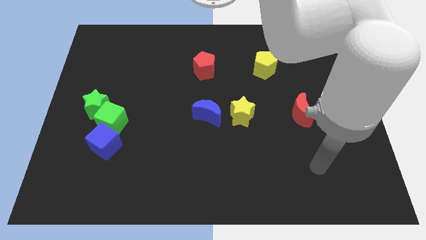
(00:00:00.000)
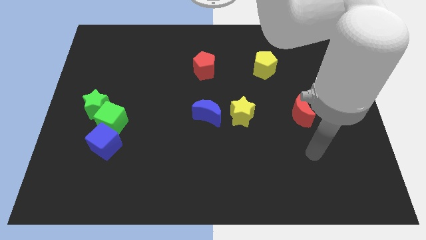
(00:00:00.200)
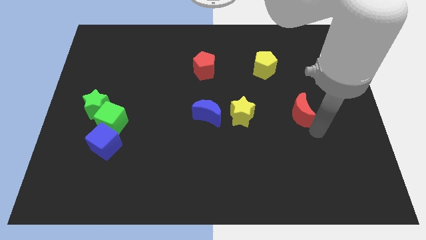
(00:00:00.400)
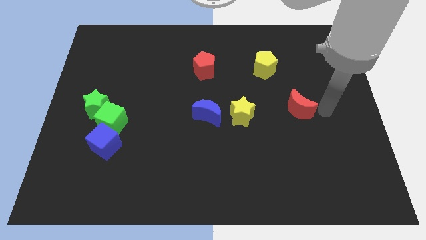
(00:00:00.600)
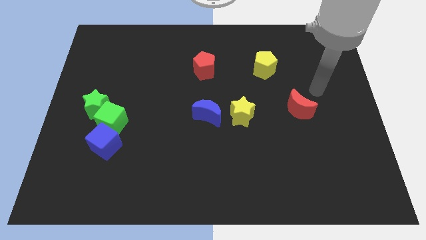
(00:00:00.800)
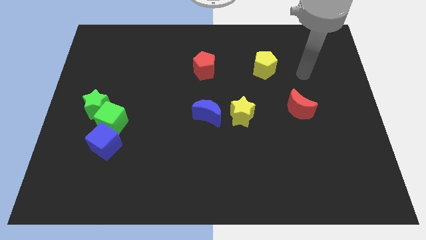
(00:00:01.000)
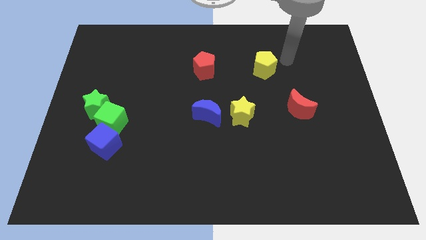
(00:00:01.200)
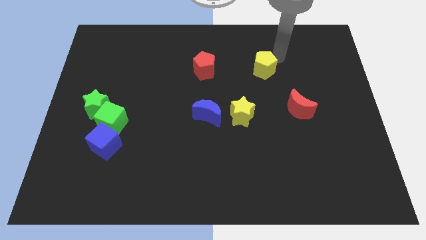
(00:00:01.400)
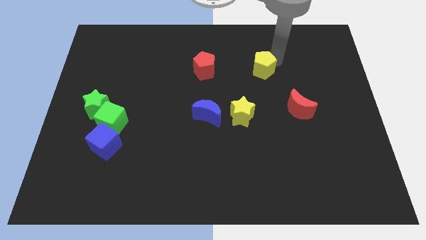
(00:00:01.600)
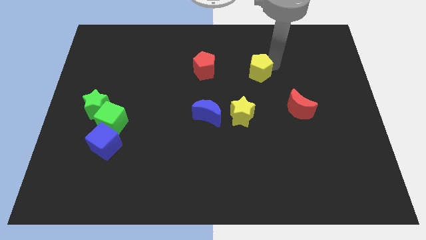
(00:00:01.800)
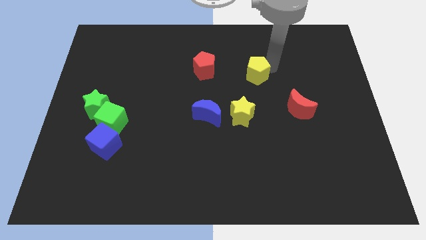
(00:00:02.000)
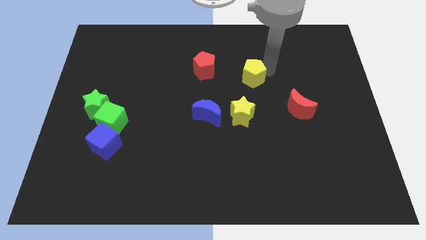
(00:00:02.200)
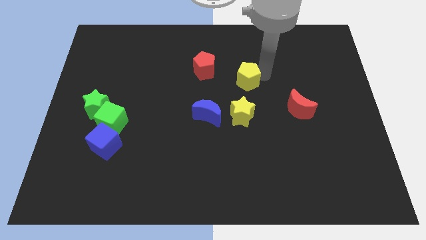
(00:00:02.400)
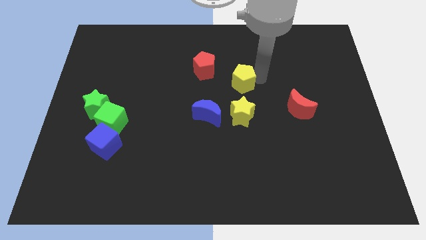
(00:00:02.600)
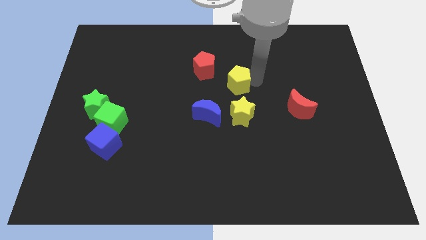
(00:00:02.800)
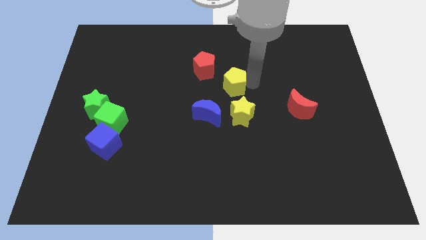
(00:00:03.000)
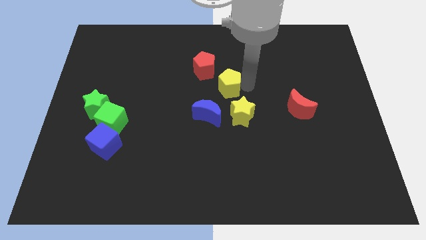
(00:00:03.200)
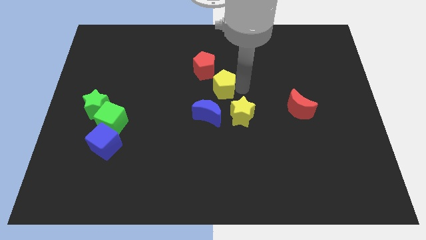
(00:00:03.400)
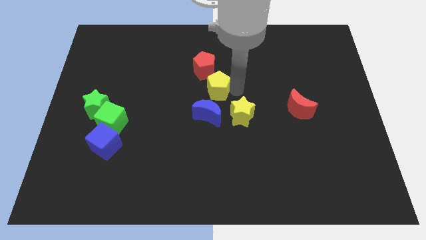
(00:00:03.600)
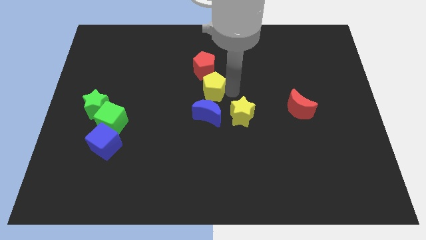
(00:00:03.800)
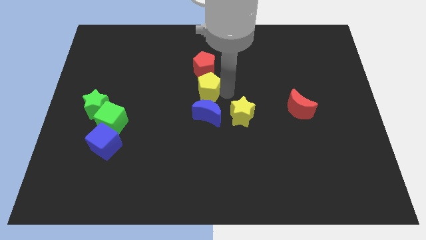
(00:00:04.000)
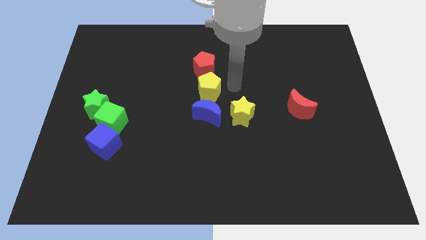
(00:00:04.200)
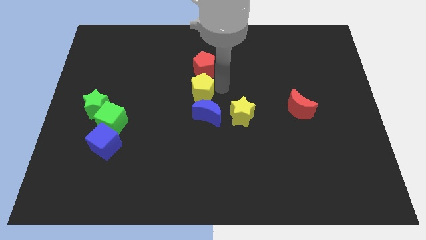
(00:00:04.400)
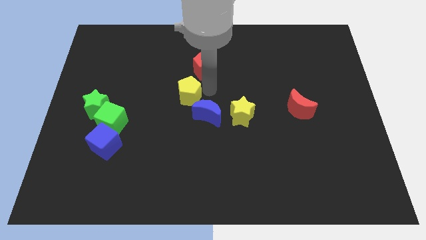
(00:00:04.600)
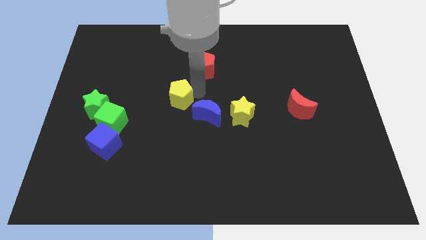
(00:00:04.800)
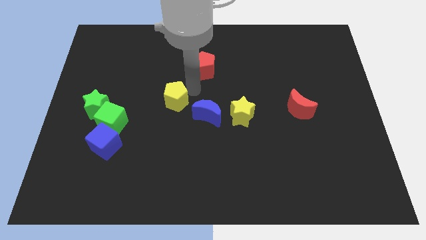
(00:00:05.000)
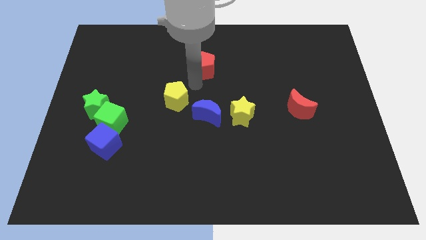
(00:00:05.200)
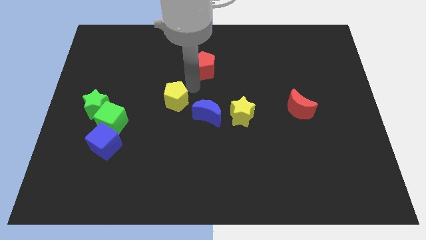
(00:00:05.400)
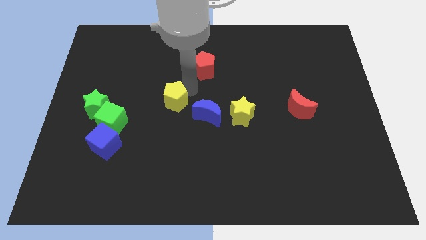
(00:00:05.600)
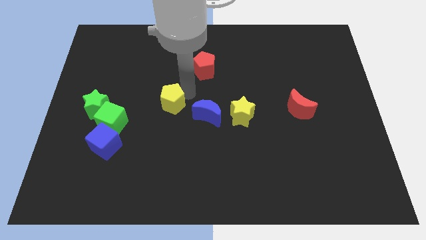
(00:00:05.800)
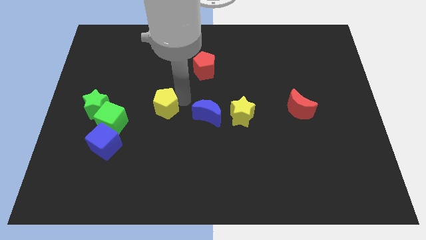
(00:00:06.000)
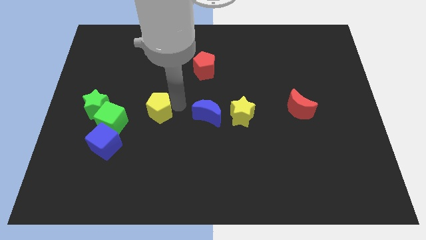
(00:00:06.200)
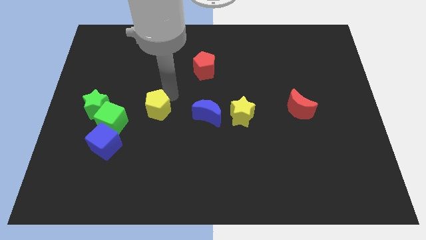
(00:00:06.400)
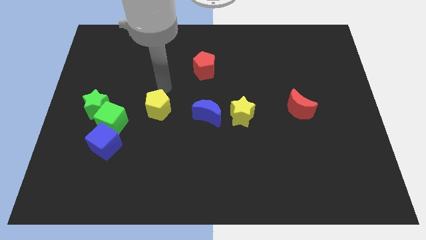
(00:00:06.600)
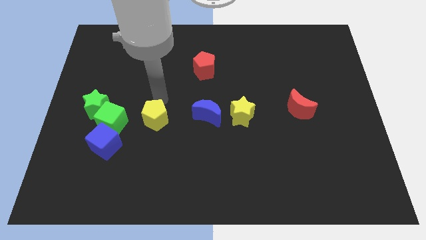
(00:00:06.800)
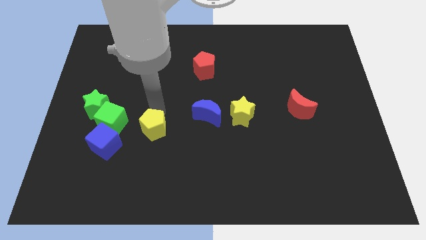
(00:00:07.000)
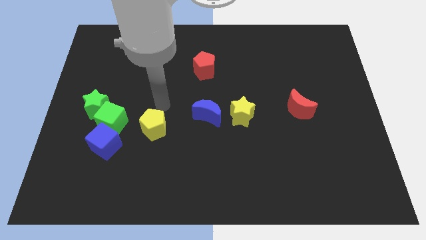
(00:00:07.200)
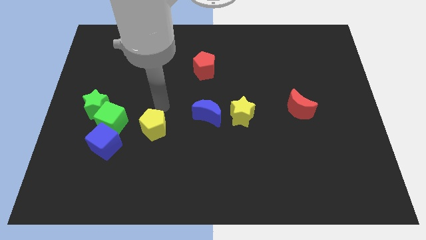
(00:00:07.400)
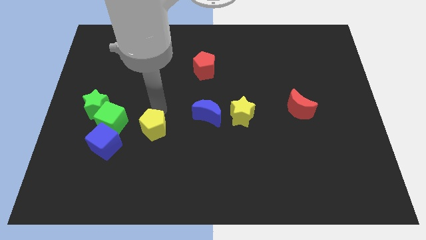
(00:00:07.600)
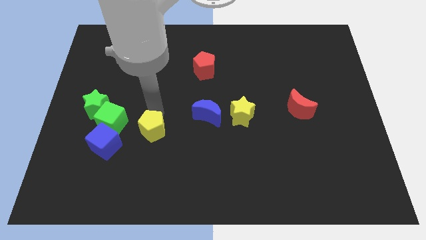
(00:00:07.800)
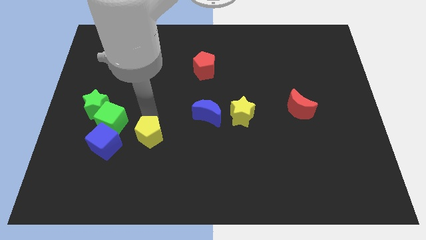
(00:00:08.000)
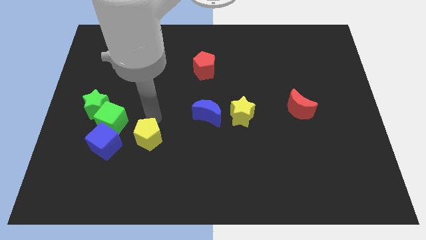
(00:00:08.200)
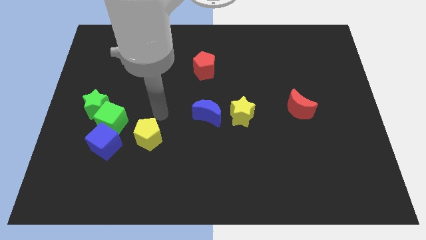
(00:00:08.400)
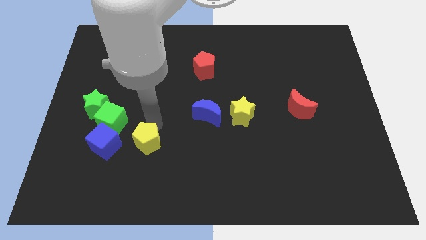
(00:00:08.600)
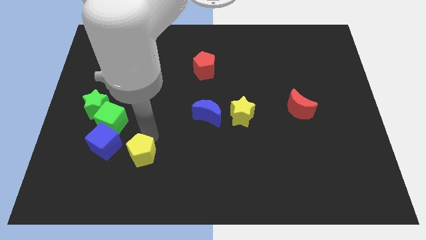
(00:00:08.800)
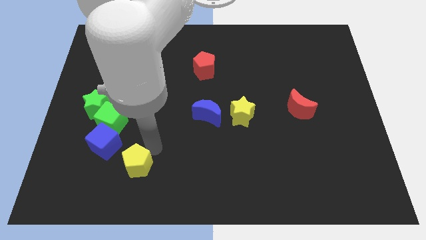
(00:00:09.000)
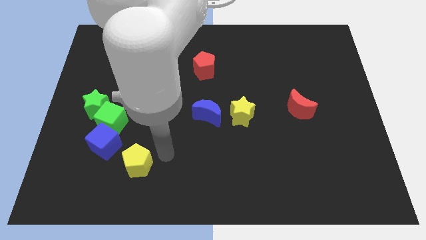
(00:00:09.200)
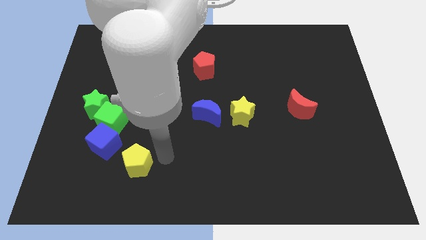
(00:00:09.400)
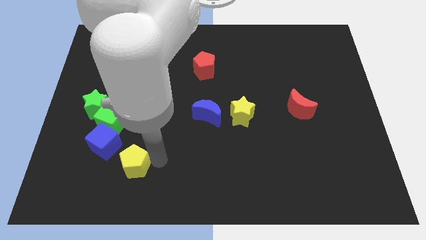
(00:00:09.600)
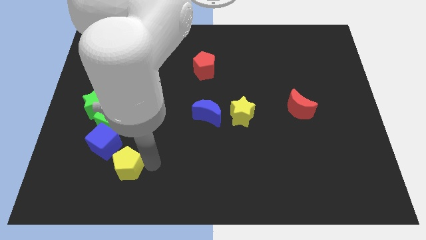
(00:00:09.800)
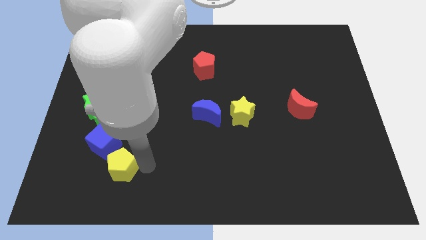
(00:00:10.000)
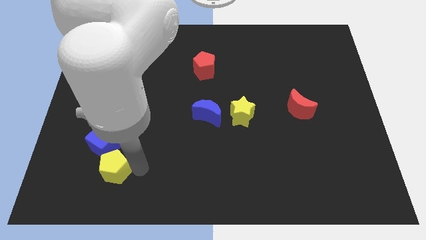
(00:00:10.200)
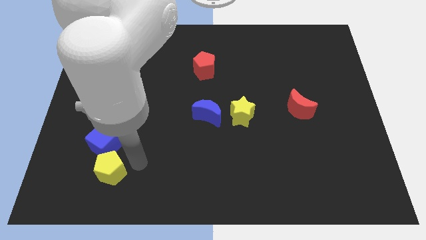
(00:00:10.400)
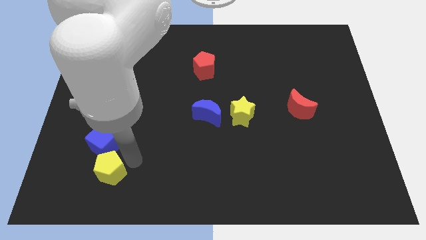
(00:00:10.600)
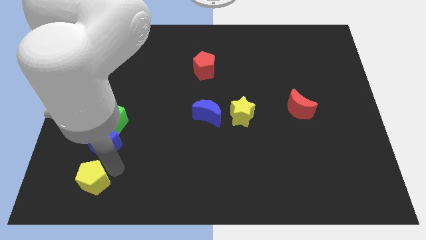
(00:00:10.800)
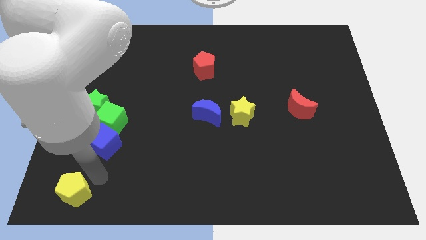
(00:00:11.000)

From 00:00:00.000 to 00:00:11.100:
push the yellow pentagon to the bottom left

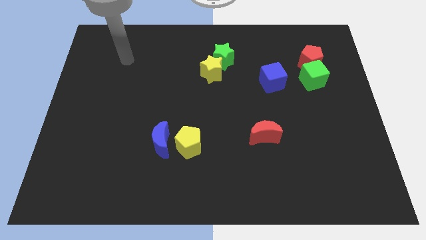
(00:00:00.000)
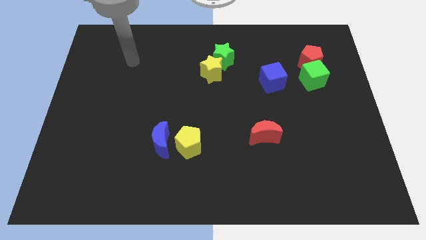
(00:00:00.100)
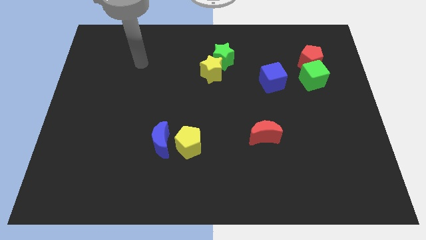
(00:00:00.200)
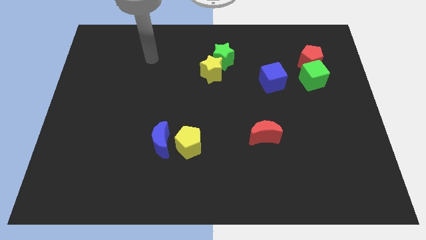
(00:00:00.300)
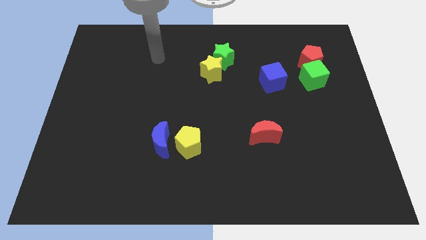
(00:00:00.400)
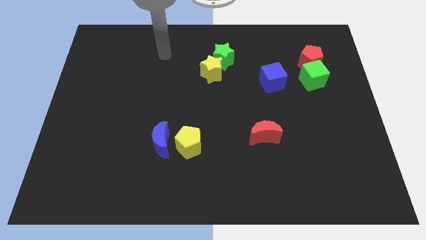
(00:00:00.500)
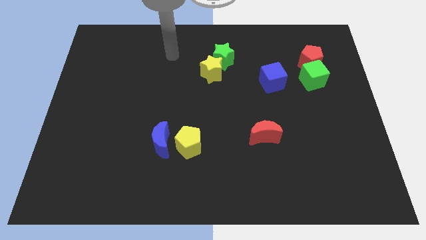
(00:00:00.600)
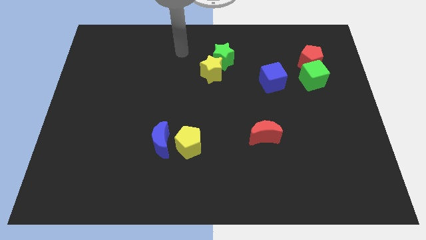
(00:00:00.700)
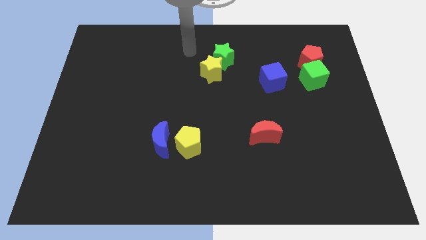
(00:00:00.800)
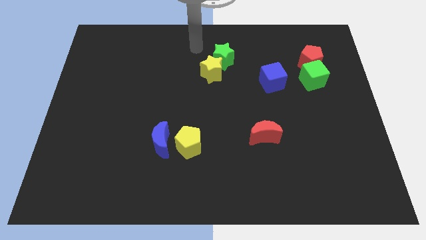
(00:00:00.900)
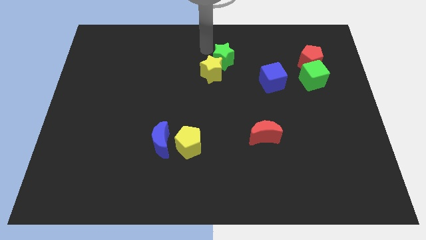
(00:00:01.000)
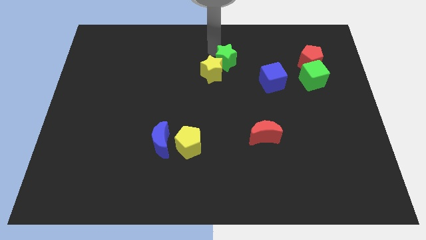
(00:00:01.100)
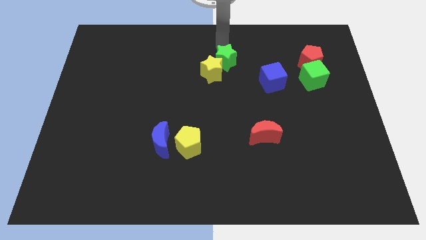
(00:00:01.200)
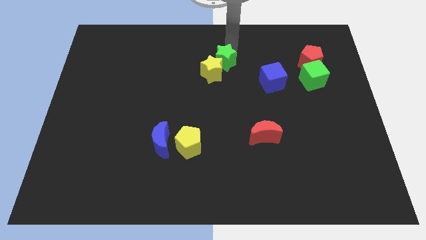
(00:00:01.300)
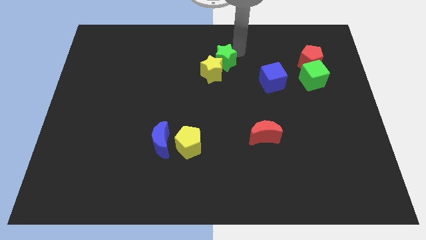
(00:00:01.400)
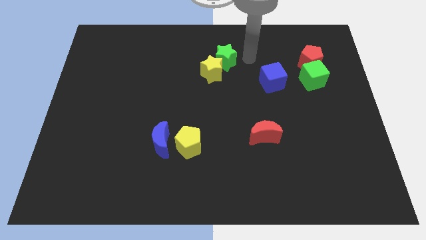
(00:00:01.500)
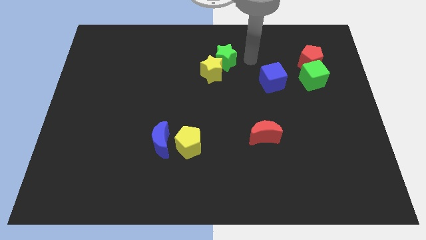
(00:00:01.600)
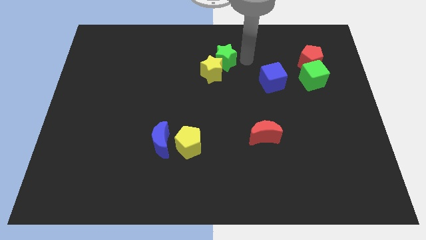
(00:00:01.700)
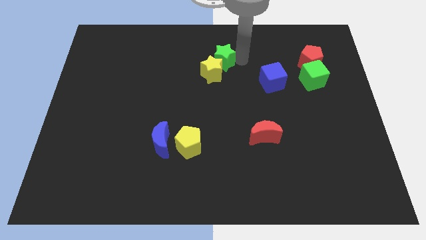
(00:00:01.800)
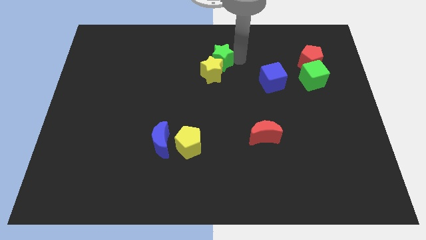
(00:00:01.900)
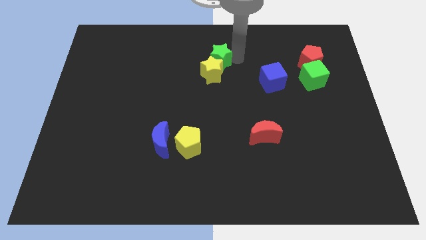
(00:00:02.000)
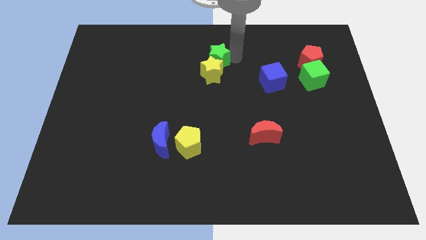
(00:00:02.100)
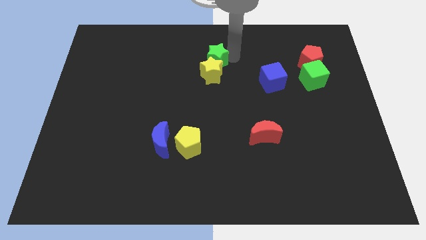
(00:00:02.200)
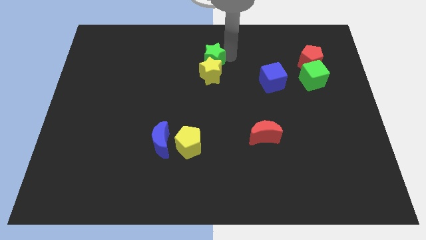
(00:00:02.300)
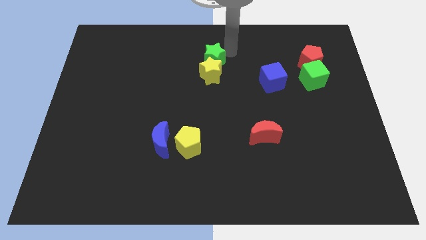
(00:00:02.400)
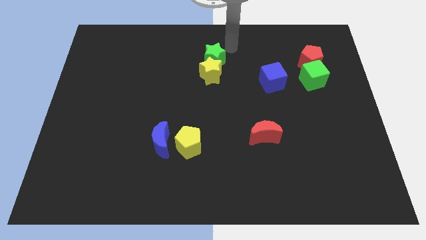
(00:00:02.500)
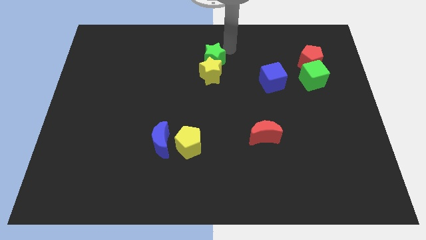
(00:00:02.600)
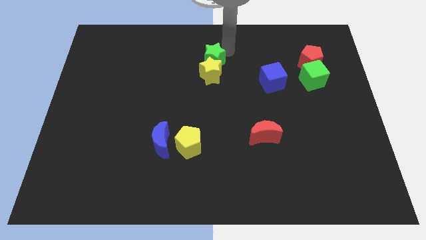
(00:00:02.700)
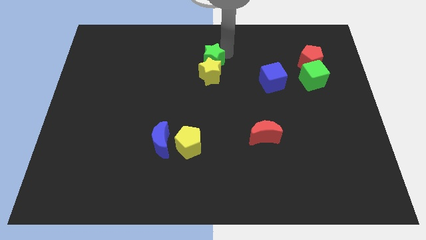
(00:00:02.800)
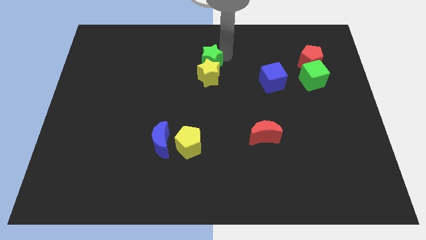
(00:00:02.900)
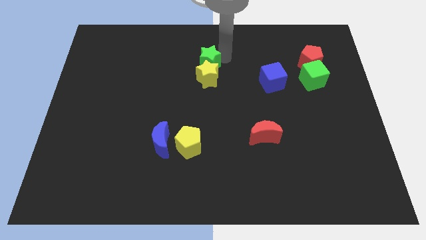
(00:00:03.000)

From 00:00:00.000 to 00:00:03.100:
push the green star to the center
